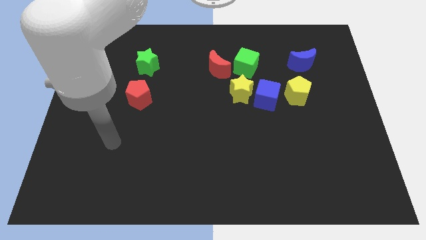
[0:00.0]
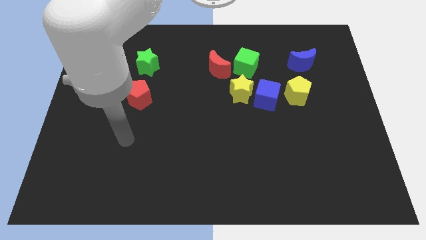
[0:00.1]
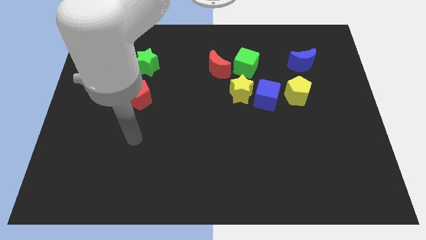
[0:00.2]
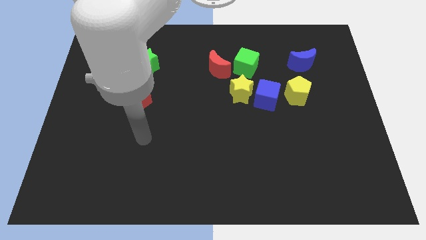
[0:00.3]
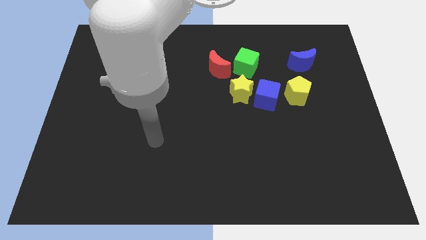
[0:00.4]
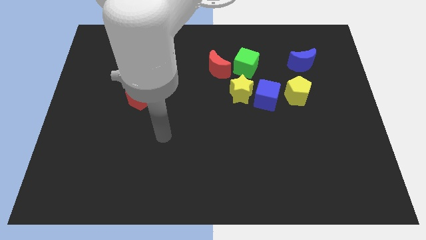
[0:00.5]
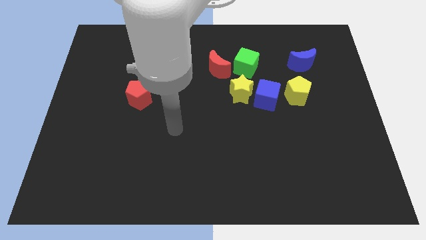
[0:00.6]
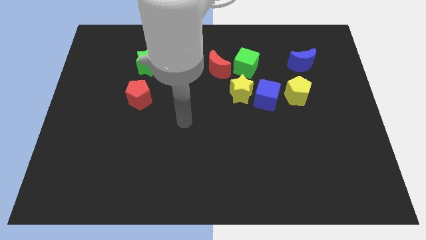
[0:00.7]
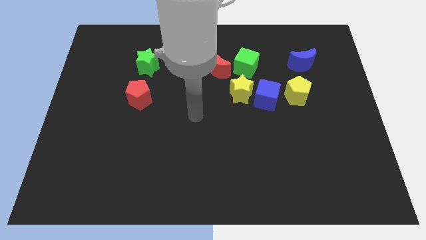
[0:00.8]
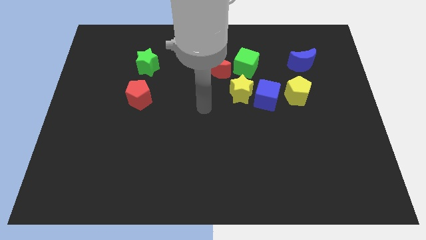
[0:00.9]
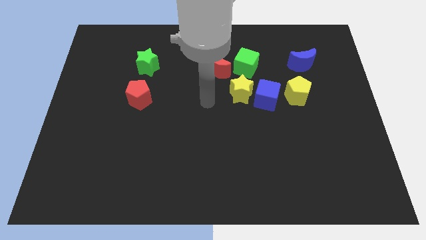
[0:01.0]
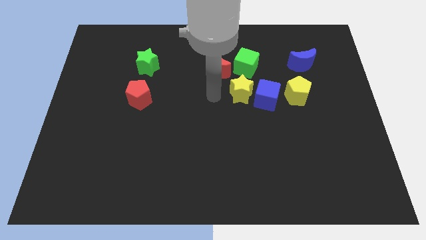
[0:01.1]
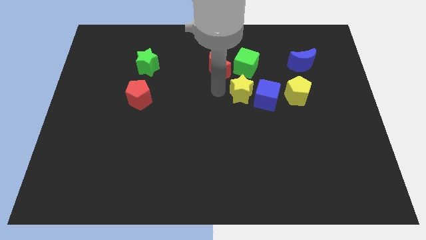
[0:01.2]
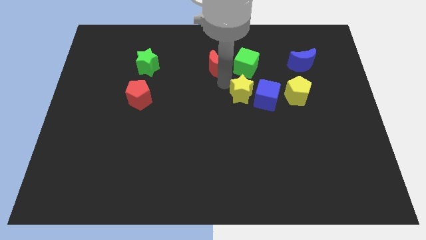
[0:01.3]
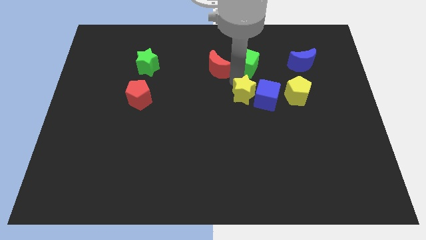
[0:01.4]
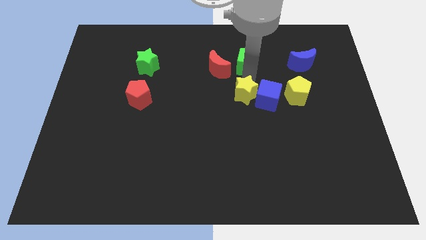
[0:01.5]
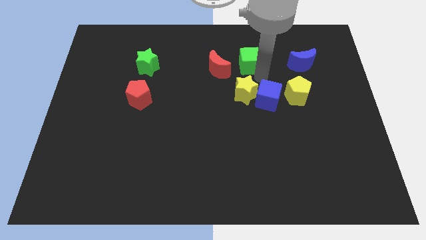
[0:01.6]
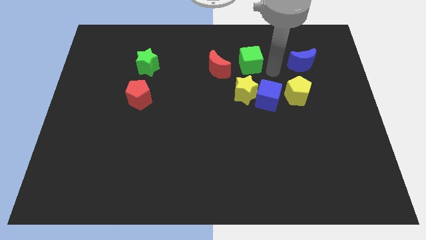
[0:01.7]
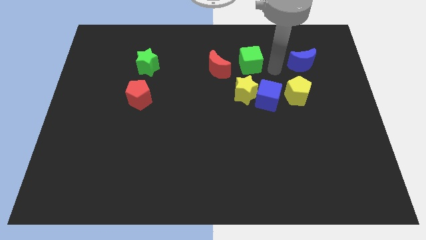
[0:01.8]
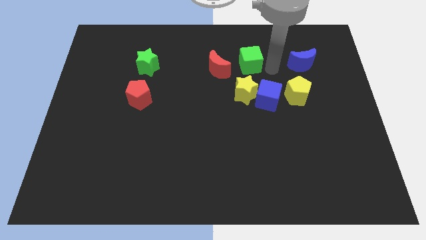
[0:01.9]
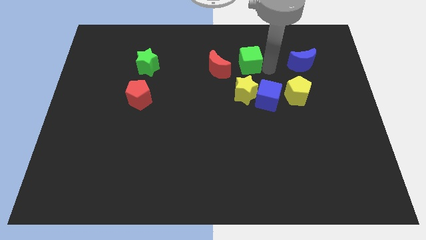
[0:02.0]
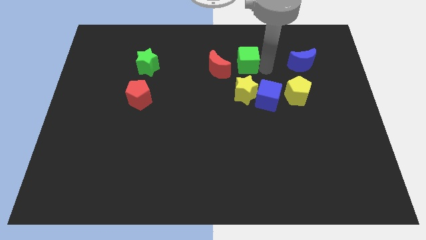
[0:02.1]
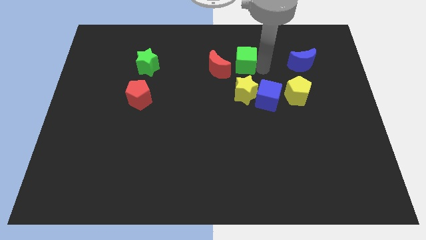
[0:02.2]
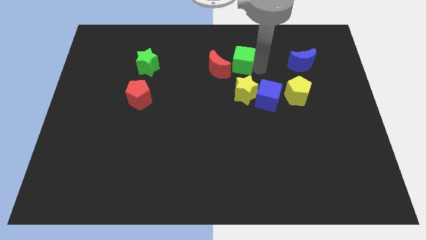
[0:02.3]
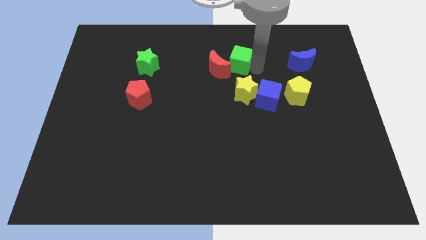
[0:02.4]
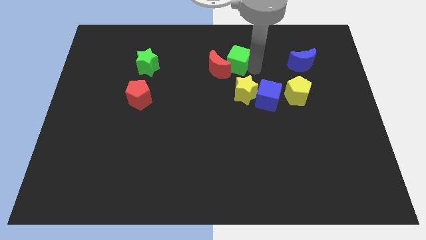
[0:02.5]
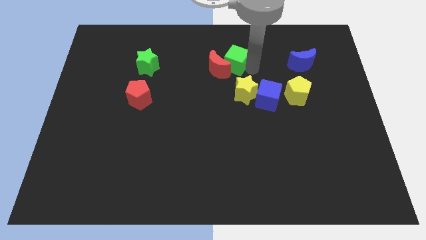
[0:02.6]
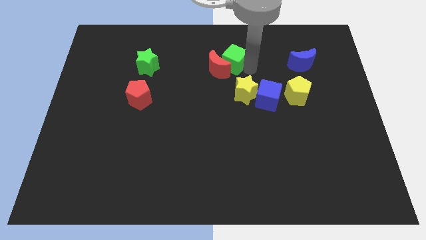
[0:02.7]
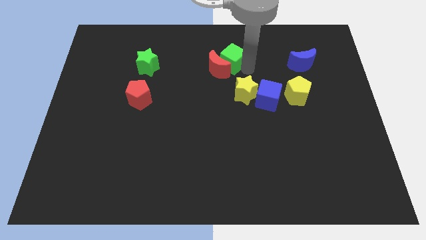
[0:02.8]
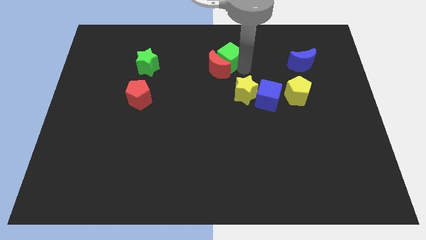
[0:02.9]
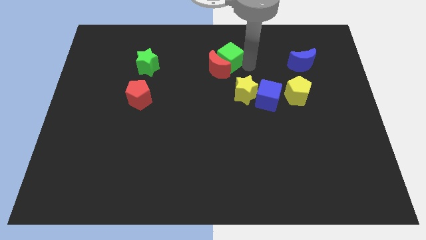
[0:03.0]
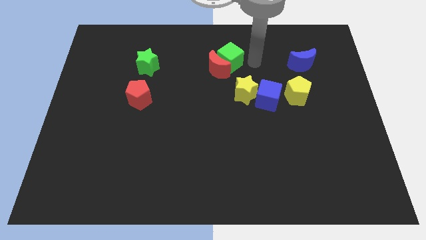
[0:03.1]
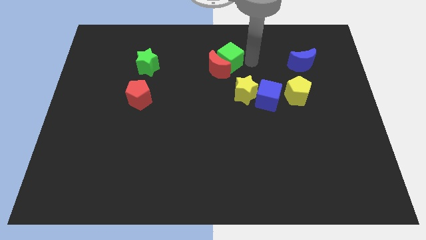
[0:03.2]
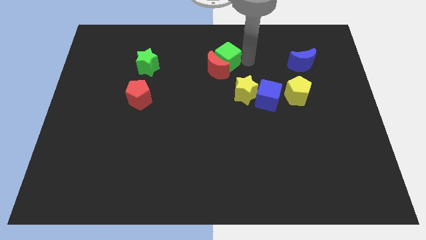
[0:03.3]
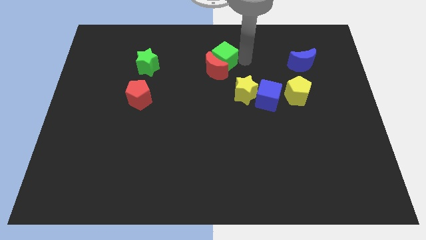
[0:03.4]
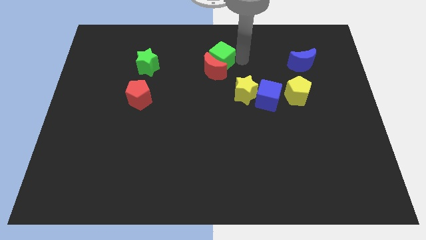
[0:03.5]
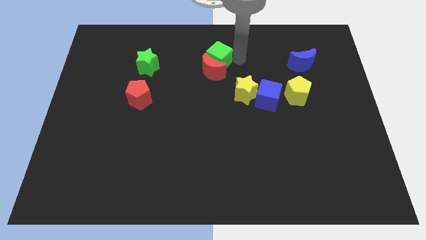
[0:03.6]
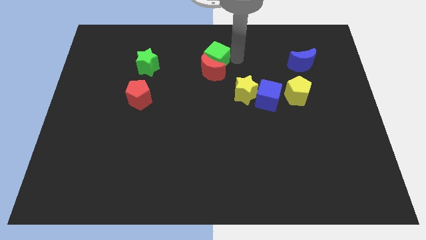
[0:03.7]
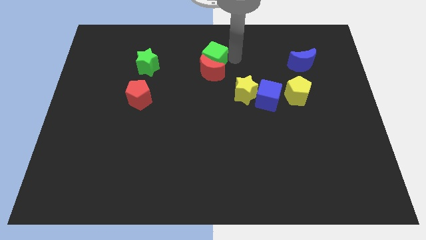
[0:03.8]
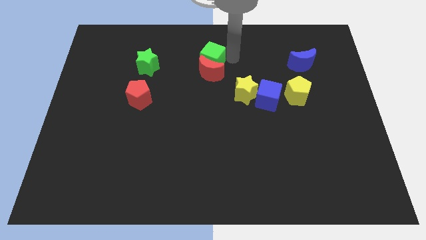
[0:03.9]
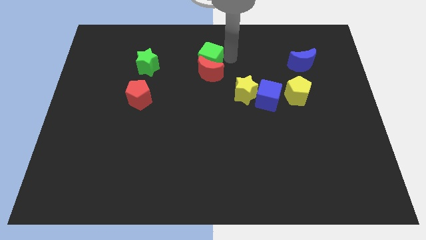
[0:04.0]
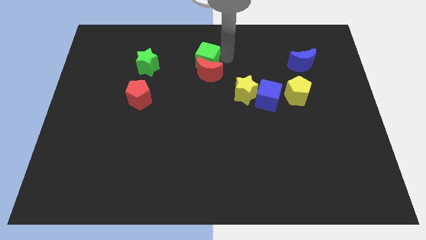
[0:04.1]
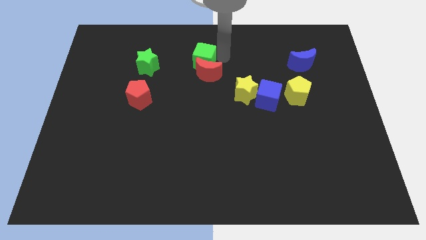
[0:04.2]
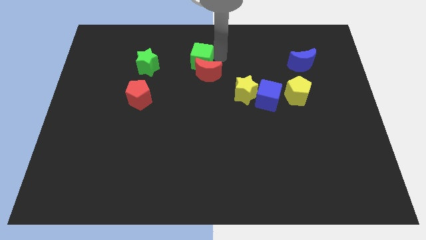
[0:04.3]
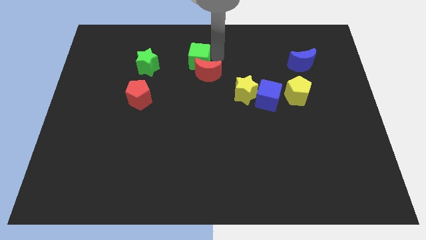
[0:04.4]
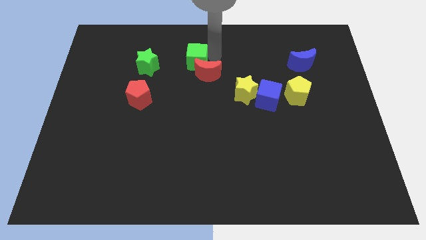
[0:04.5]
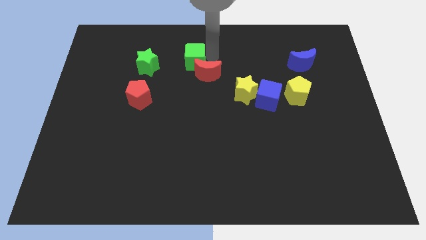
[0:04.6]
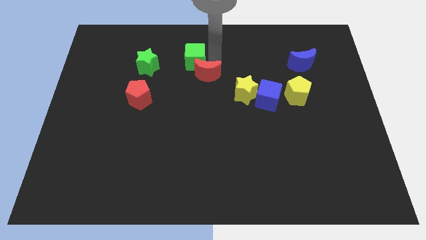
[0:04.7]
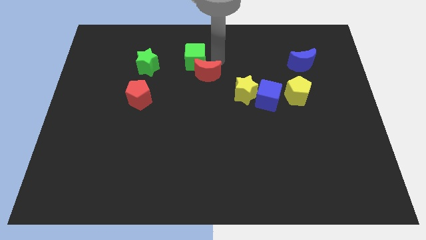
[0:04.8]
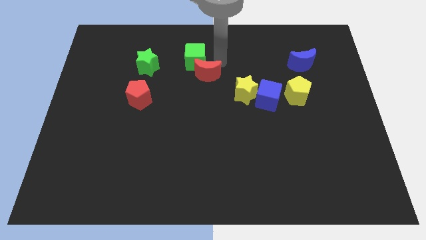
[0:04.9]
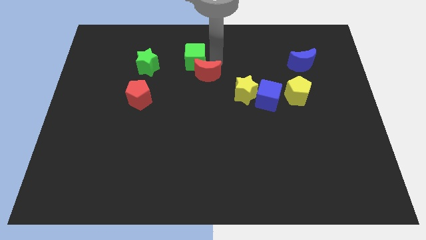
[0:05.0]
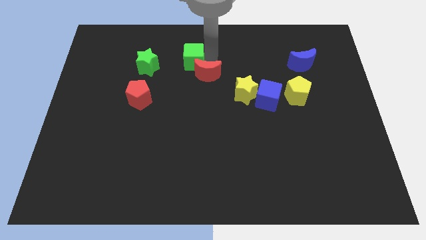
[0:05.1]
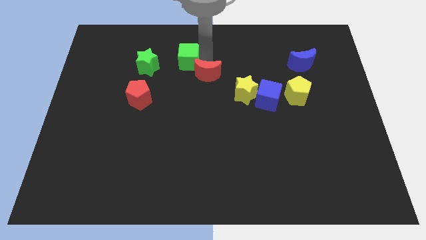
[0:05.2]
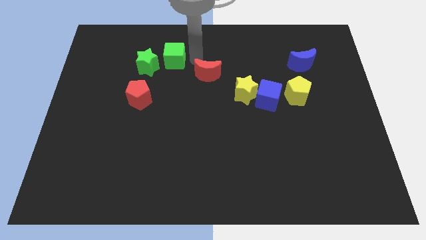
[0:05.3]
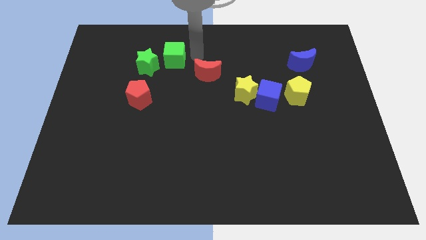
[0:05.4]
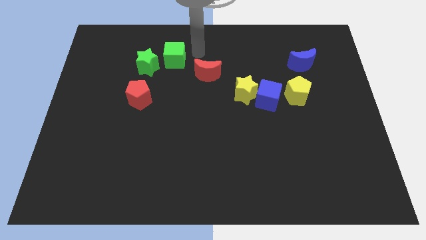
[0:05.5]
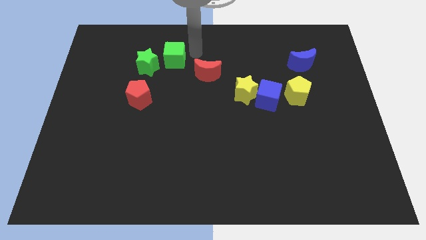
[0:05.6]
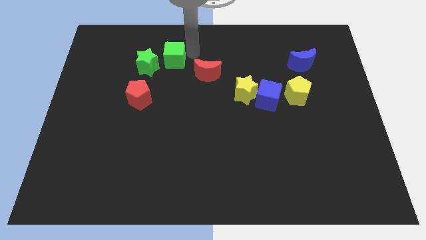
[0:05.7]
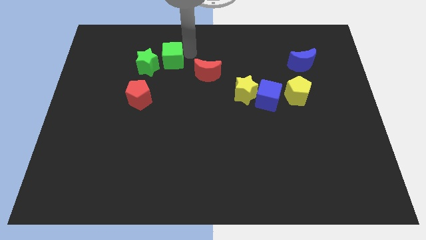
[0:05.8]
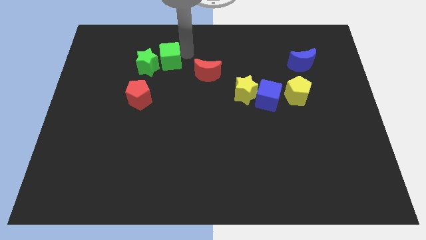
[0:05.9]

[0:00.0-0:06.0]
push the green cube to the green star

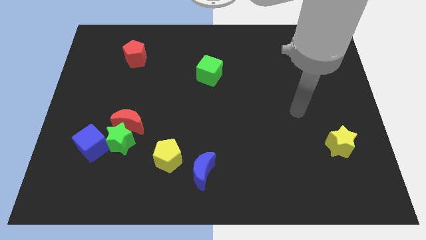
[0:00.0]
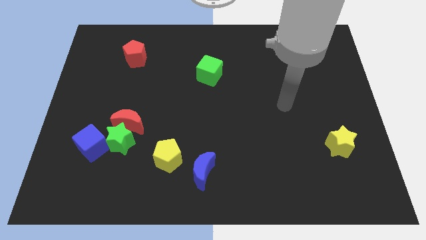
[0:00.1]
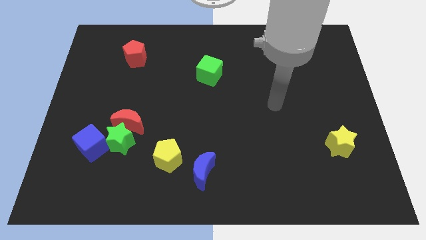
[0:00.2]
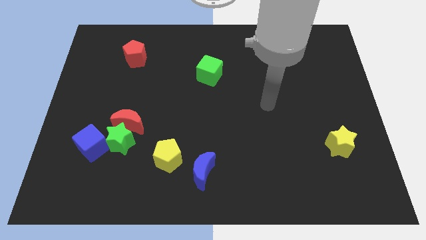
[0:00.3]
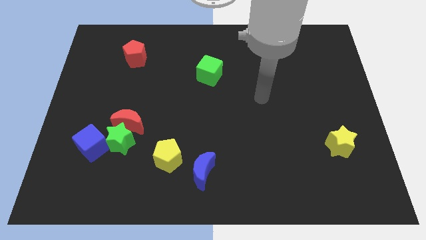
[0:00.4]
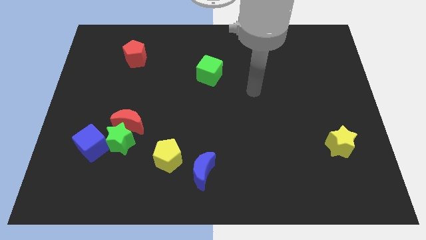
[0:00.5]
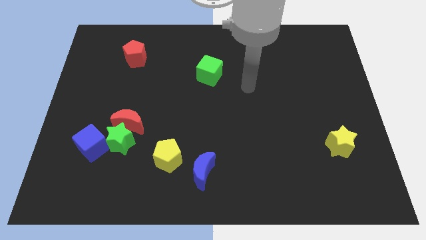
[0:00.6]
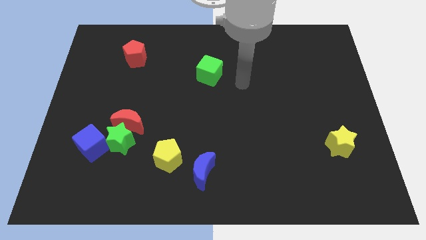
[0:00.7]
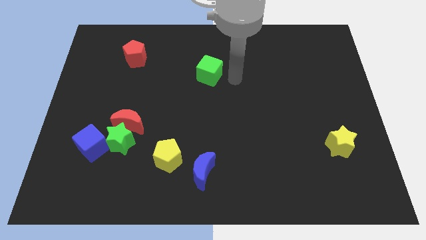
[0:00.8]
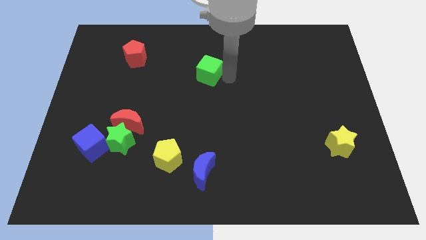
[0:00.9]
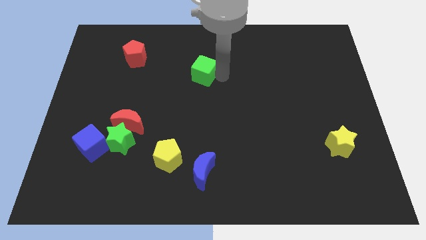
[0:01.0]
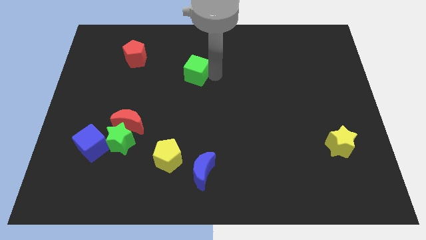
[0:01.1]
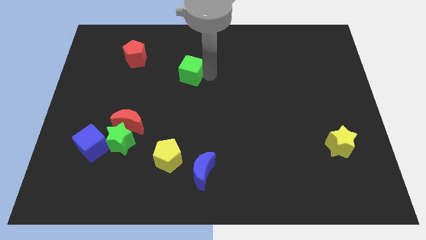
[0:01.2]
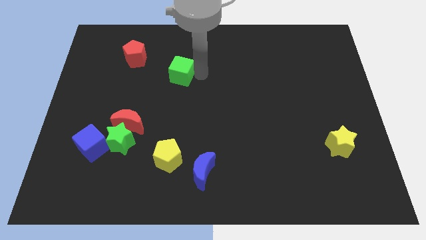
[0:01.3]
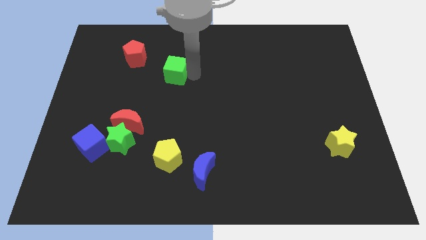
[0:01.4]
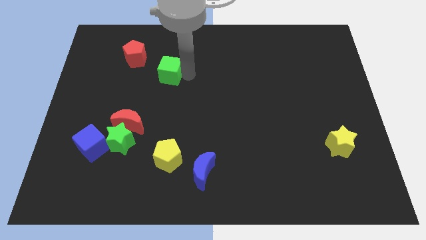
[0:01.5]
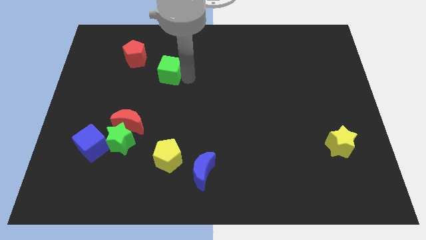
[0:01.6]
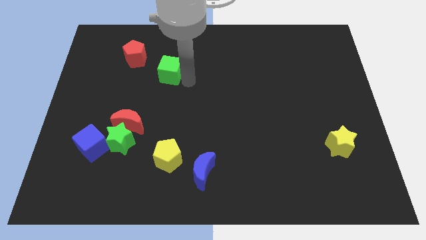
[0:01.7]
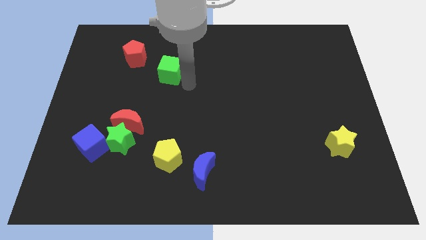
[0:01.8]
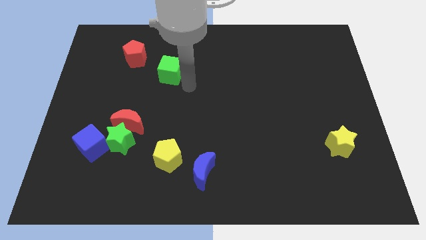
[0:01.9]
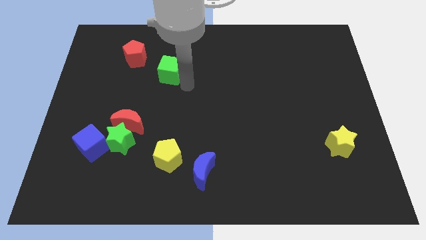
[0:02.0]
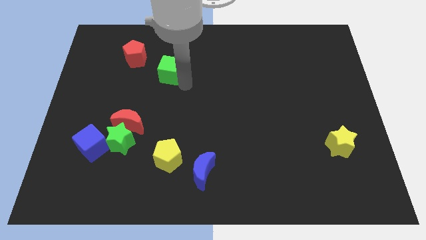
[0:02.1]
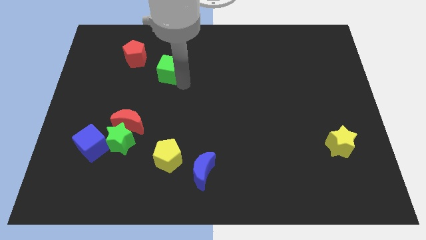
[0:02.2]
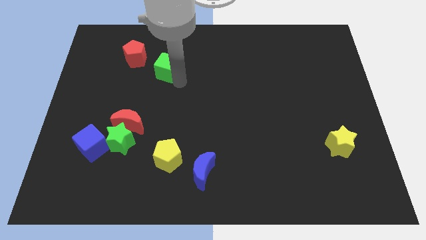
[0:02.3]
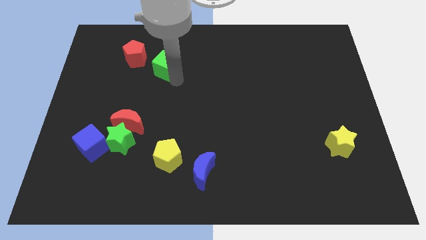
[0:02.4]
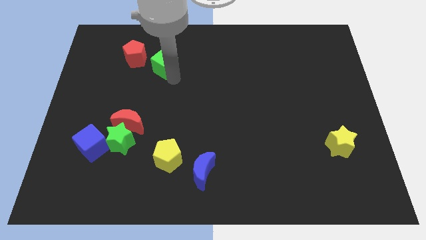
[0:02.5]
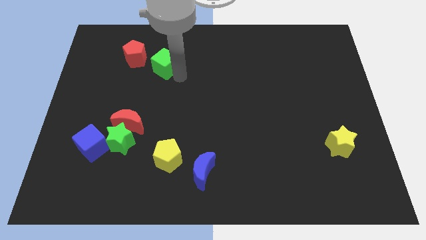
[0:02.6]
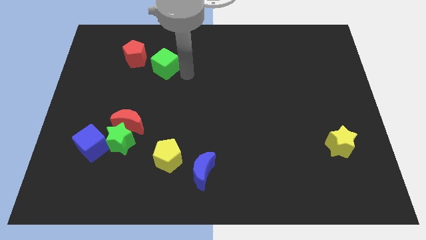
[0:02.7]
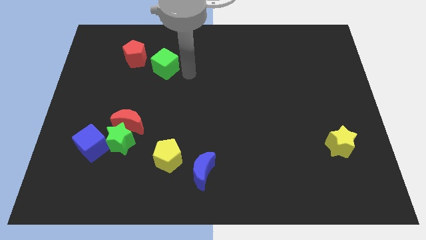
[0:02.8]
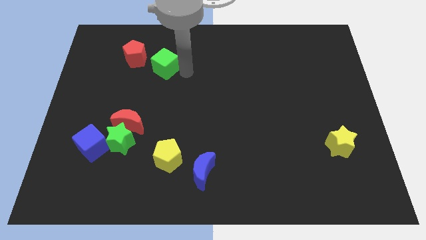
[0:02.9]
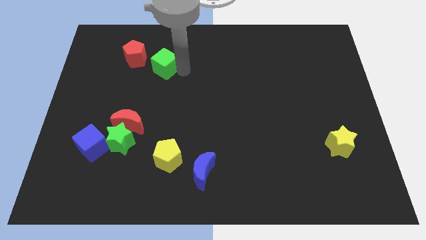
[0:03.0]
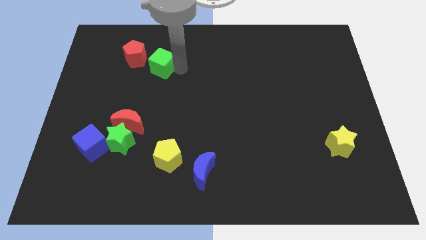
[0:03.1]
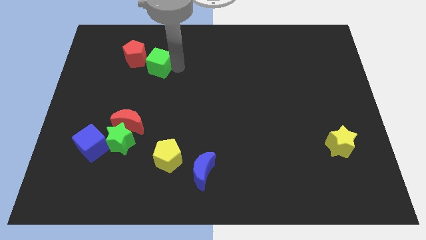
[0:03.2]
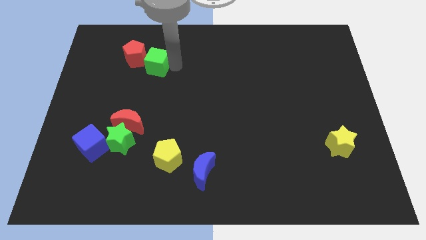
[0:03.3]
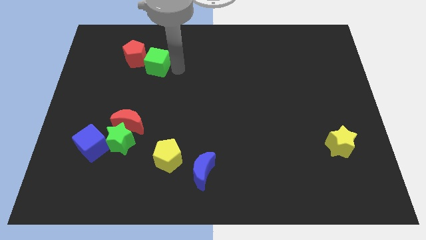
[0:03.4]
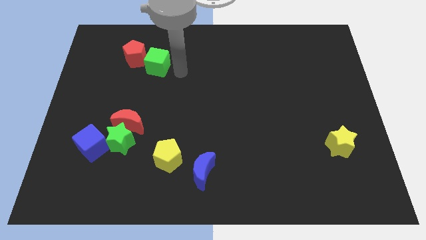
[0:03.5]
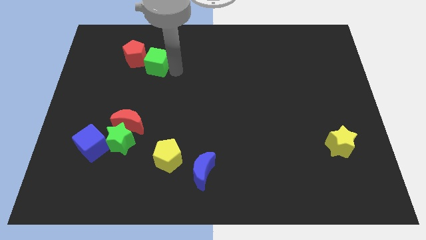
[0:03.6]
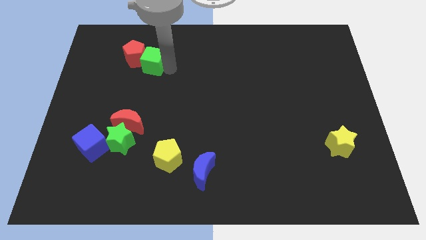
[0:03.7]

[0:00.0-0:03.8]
slide the green cube close to the red pentagon
